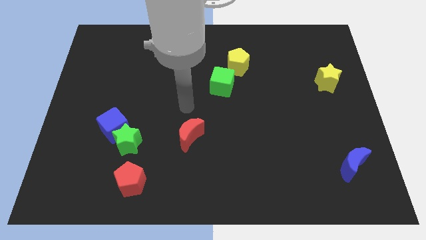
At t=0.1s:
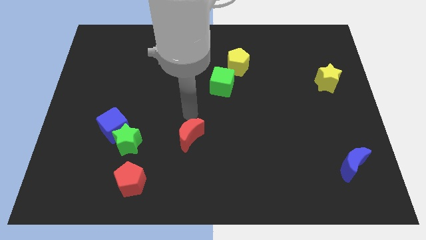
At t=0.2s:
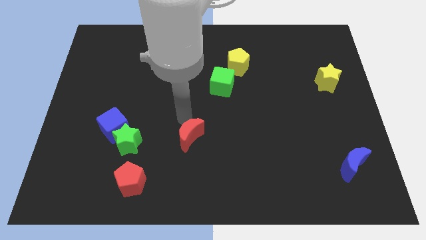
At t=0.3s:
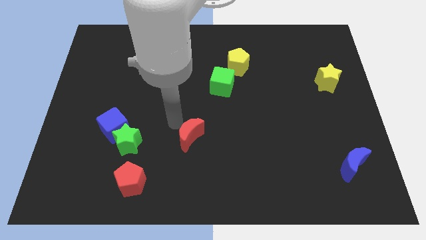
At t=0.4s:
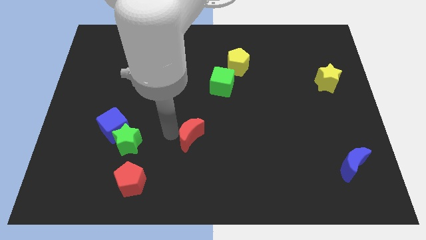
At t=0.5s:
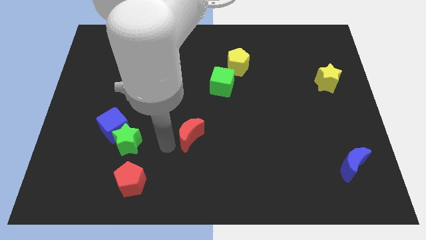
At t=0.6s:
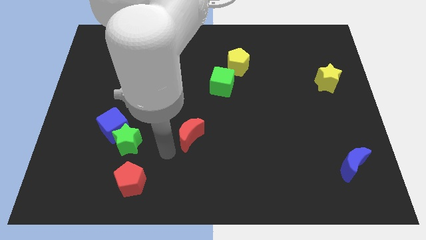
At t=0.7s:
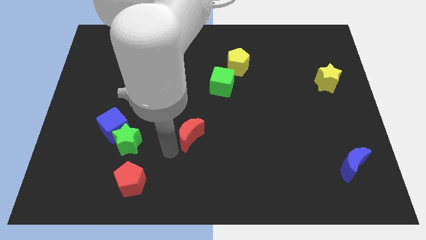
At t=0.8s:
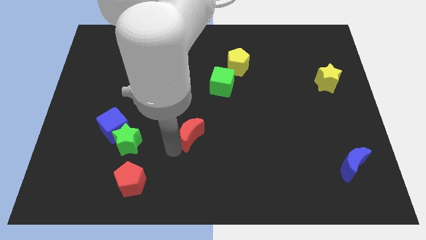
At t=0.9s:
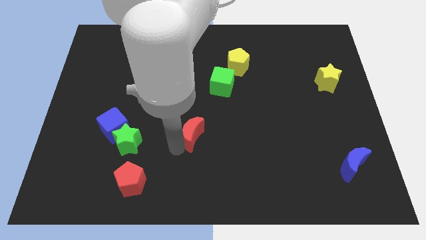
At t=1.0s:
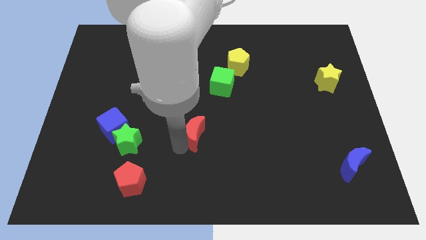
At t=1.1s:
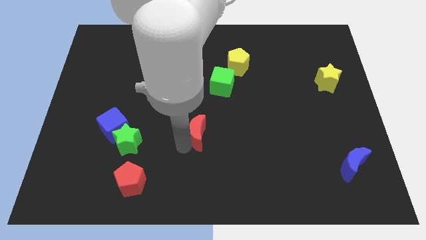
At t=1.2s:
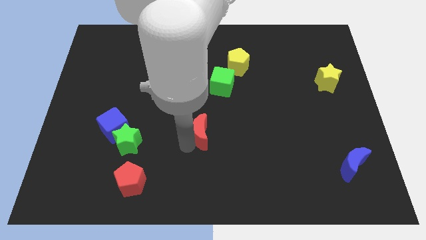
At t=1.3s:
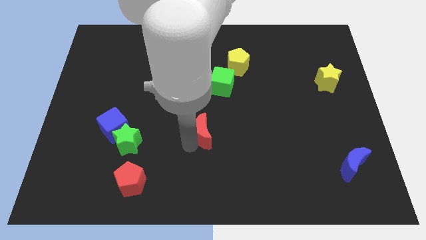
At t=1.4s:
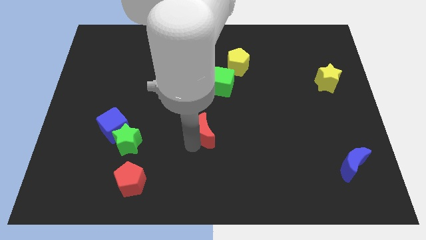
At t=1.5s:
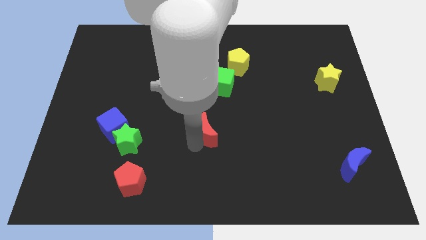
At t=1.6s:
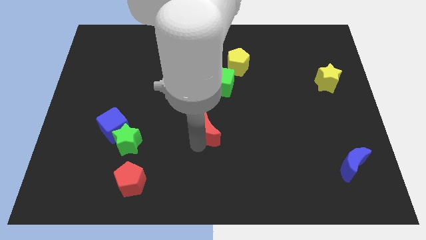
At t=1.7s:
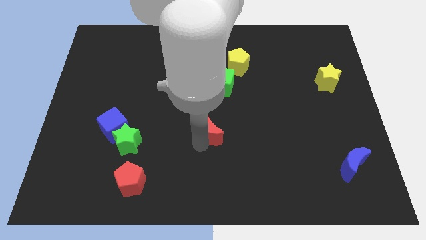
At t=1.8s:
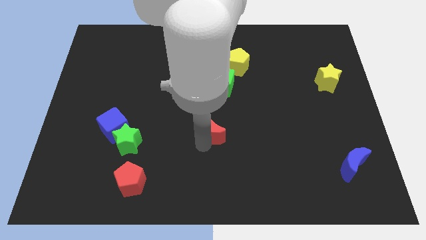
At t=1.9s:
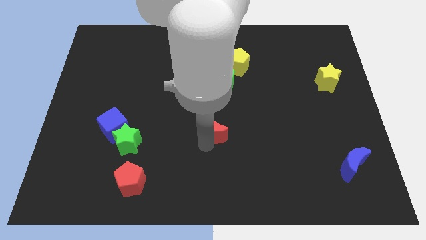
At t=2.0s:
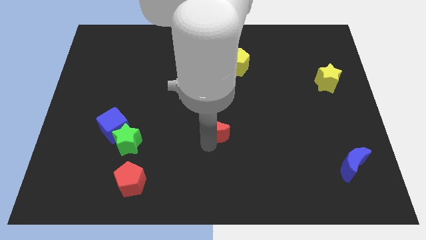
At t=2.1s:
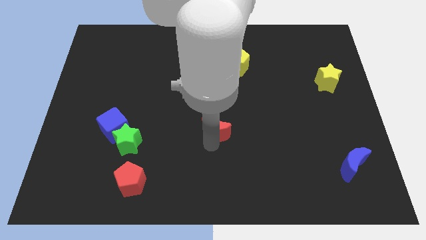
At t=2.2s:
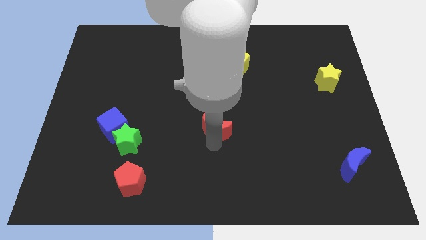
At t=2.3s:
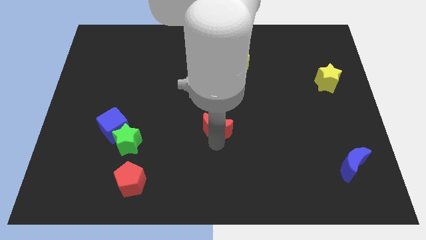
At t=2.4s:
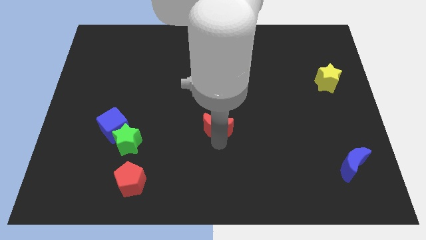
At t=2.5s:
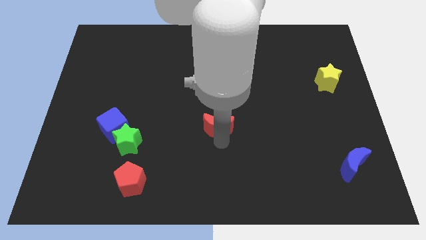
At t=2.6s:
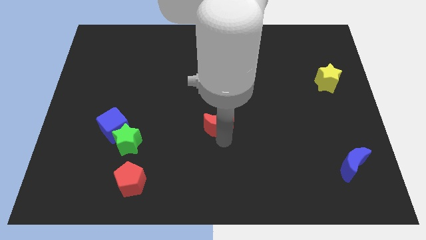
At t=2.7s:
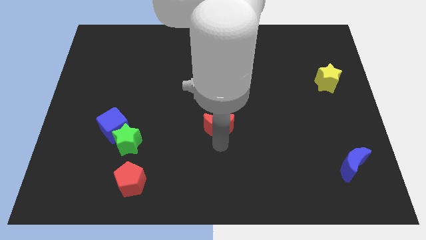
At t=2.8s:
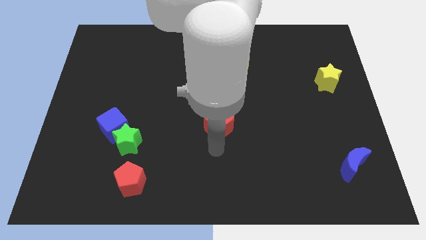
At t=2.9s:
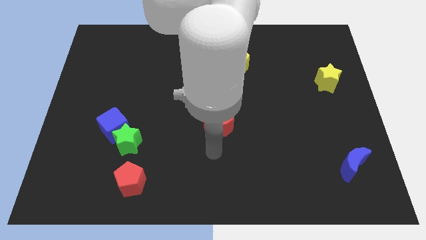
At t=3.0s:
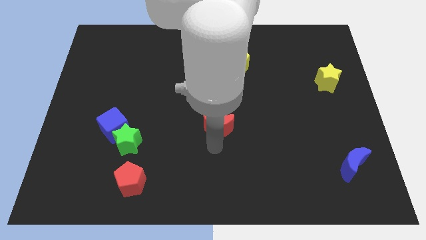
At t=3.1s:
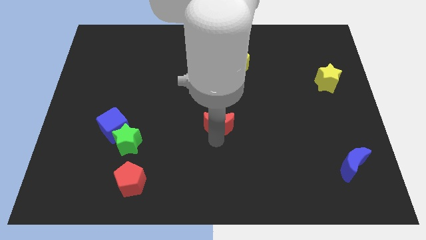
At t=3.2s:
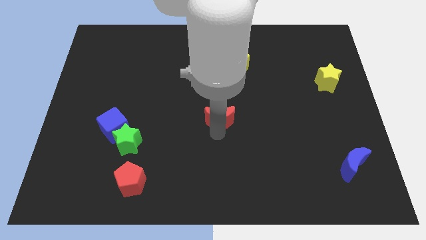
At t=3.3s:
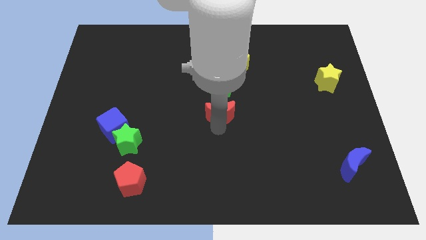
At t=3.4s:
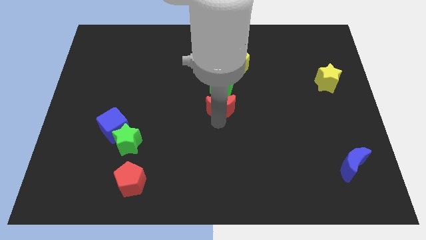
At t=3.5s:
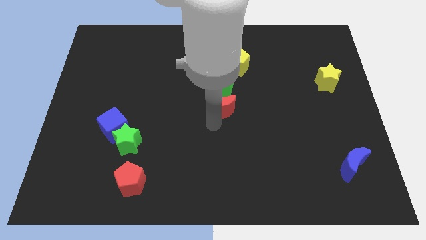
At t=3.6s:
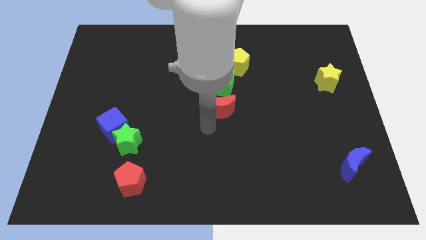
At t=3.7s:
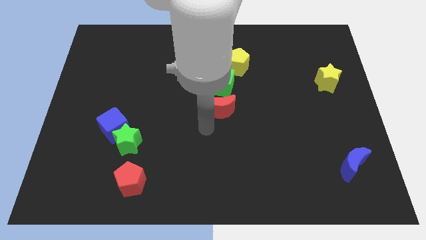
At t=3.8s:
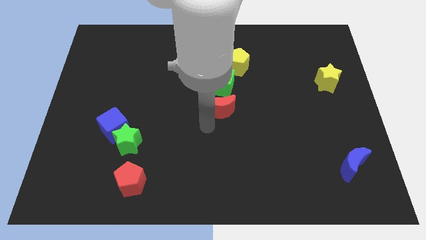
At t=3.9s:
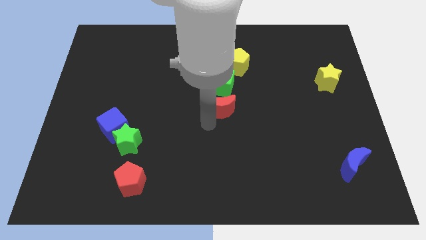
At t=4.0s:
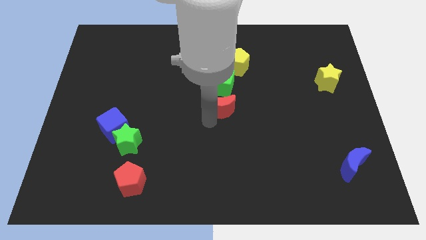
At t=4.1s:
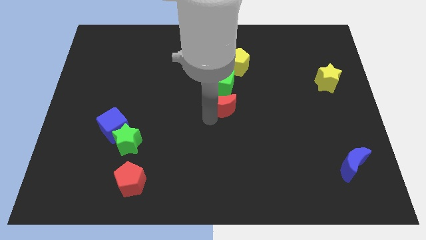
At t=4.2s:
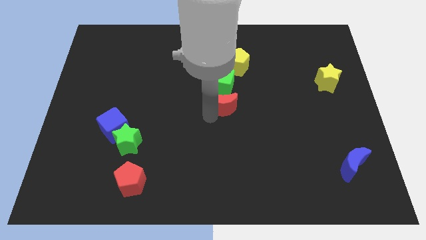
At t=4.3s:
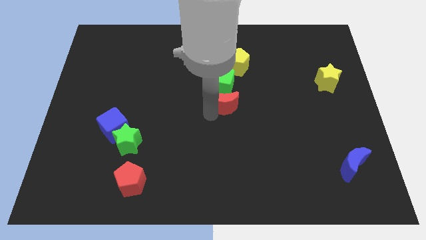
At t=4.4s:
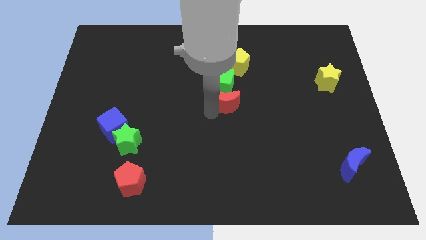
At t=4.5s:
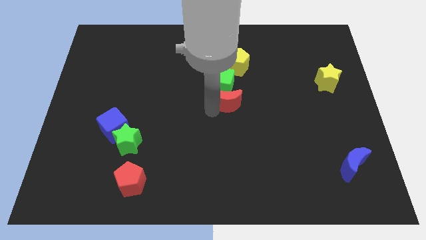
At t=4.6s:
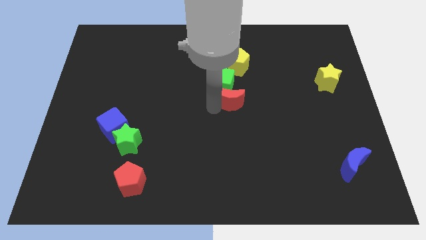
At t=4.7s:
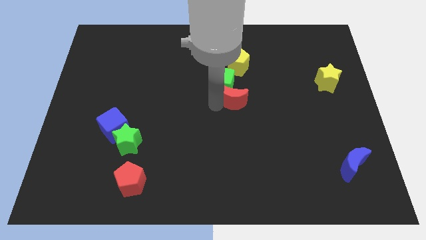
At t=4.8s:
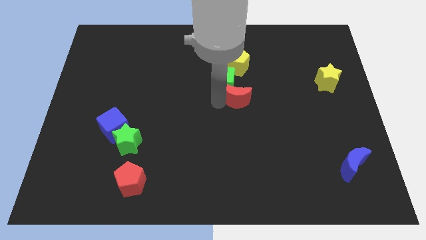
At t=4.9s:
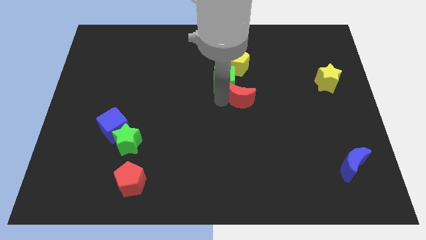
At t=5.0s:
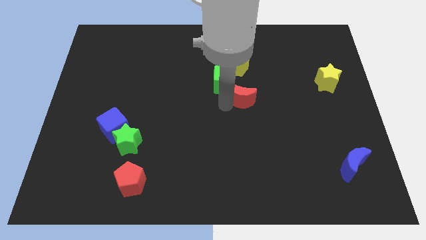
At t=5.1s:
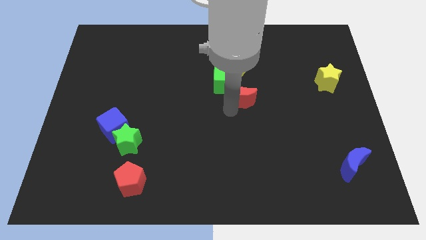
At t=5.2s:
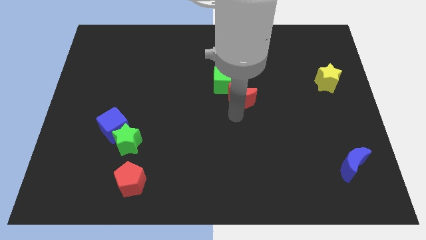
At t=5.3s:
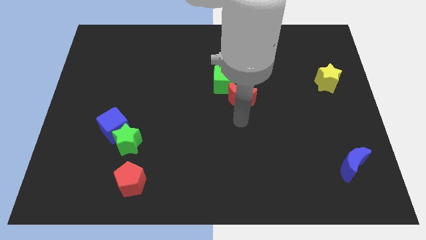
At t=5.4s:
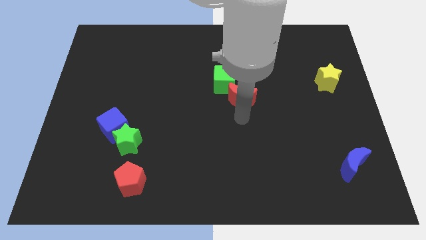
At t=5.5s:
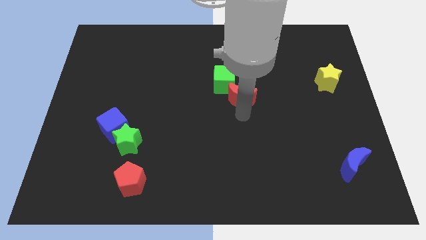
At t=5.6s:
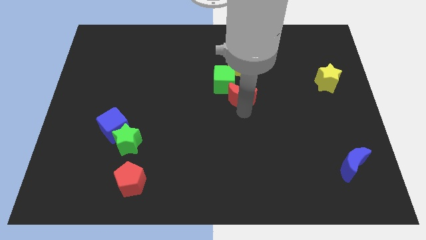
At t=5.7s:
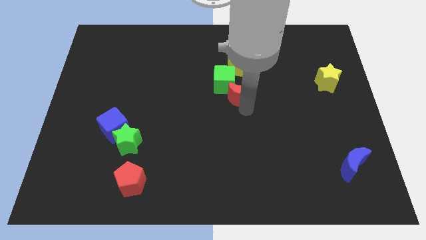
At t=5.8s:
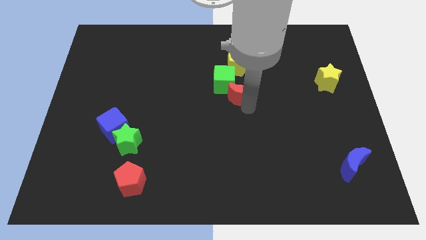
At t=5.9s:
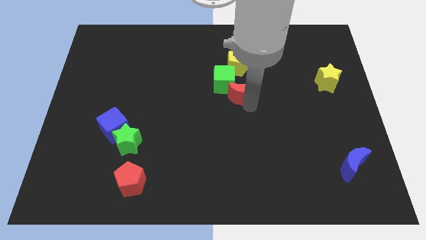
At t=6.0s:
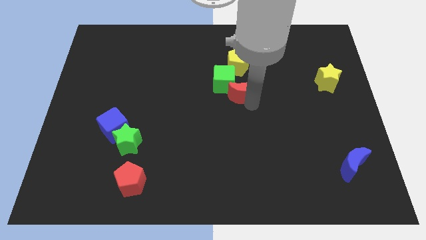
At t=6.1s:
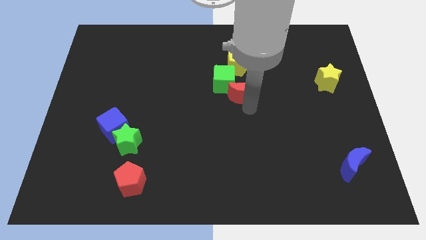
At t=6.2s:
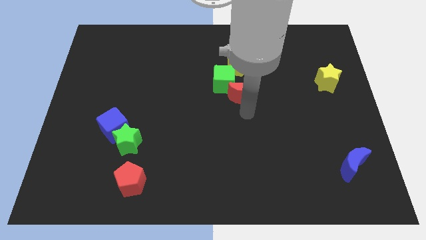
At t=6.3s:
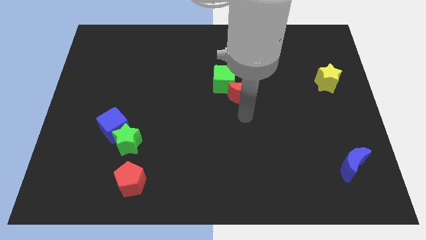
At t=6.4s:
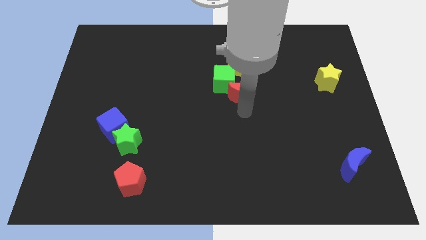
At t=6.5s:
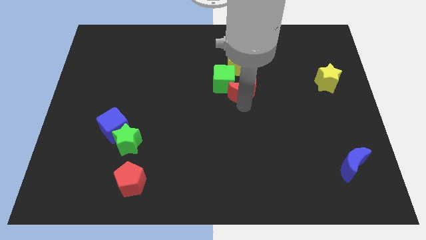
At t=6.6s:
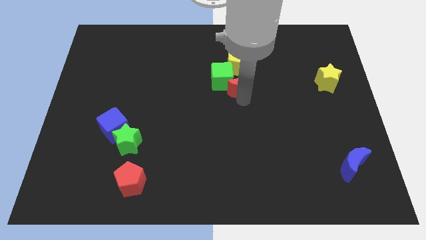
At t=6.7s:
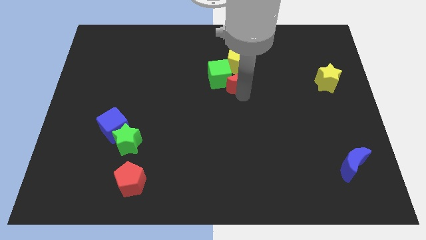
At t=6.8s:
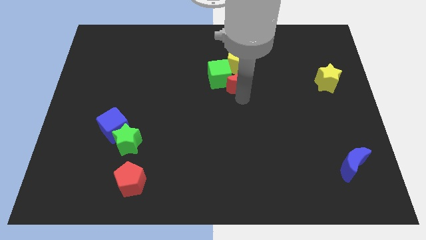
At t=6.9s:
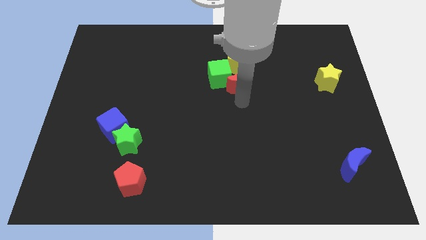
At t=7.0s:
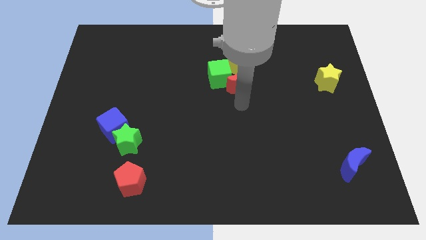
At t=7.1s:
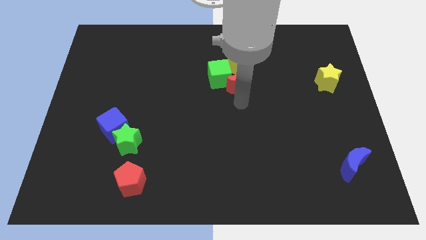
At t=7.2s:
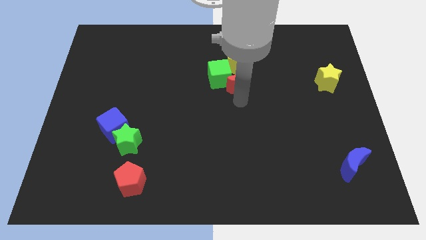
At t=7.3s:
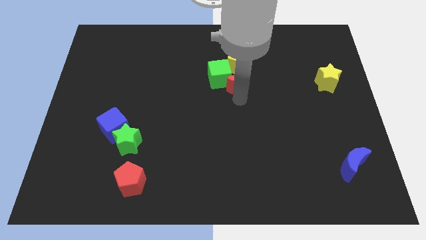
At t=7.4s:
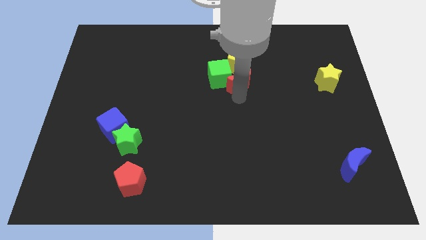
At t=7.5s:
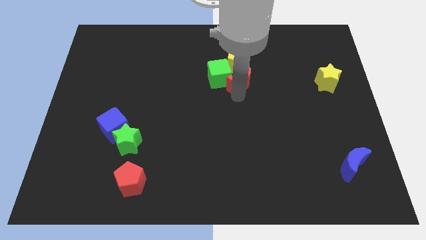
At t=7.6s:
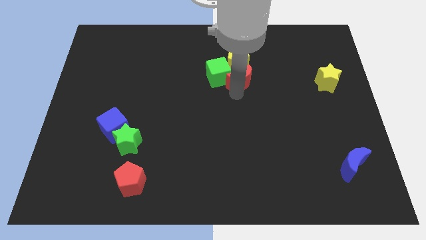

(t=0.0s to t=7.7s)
push the red moon towards the yellow pentagon

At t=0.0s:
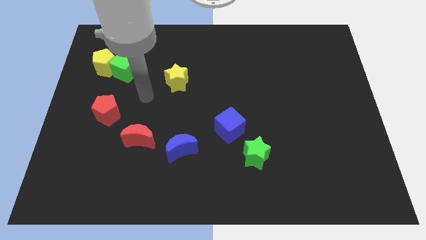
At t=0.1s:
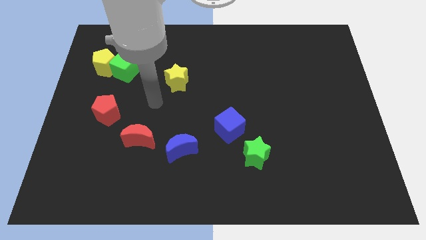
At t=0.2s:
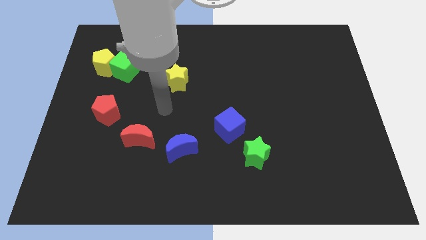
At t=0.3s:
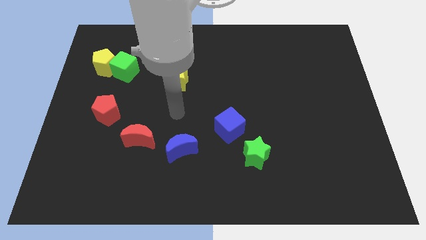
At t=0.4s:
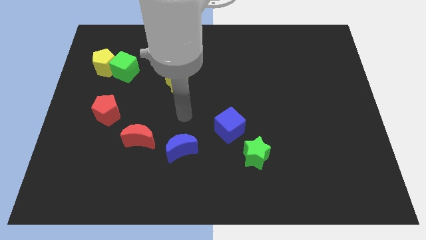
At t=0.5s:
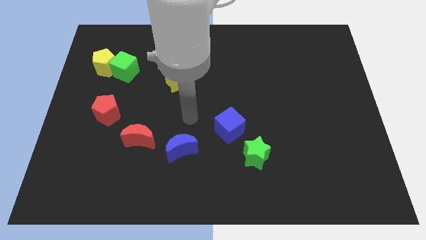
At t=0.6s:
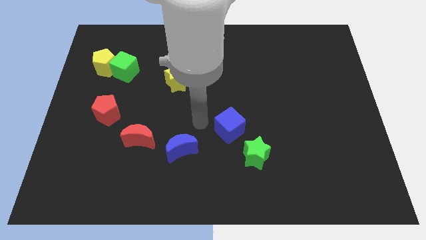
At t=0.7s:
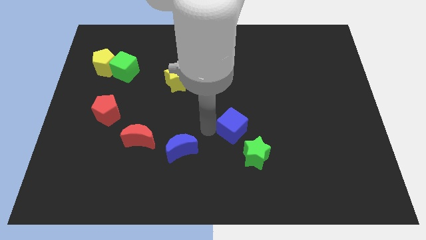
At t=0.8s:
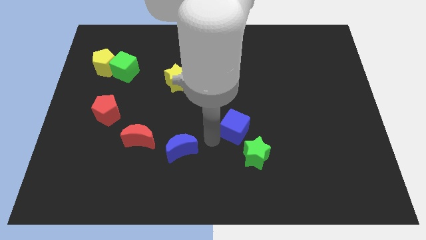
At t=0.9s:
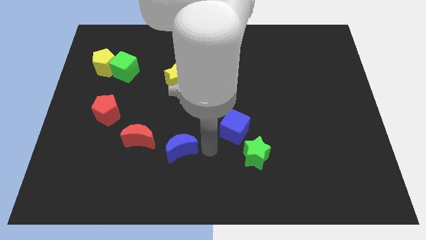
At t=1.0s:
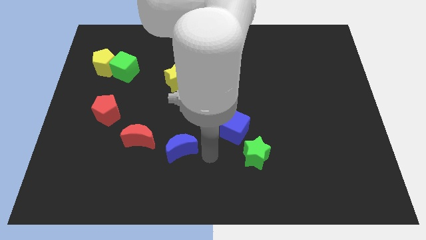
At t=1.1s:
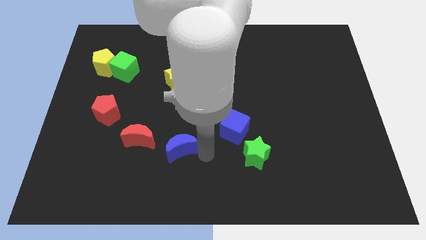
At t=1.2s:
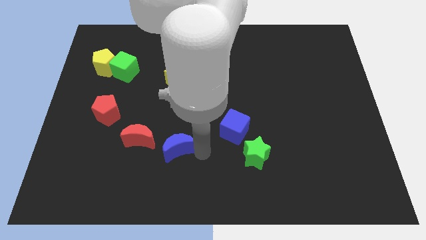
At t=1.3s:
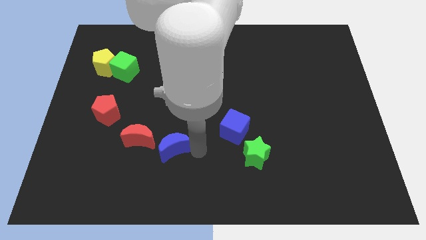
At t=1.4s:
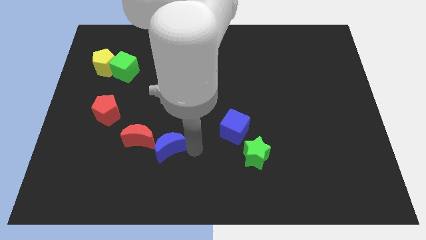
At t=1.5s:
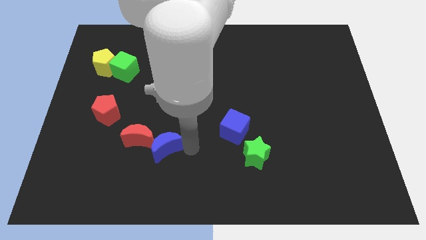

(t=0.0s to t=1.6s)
push the blue moon towards the red moon
